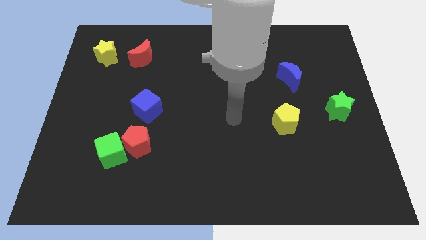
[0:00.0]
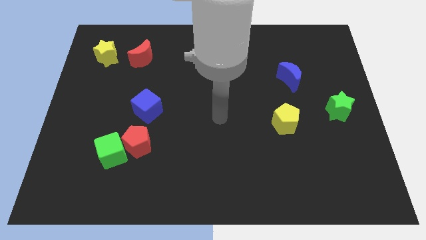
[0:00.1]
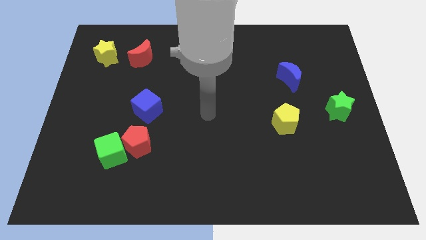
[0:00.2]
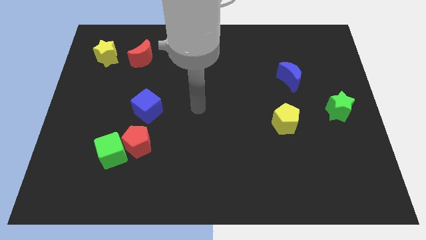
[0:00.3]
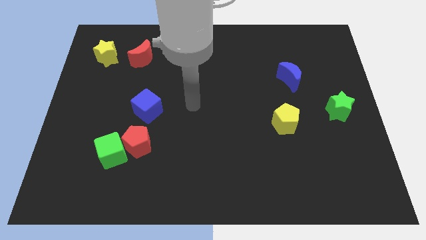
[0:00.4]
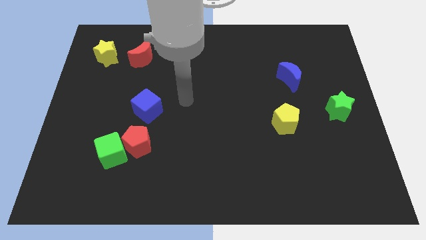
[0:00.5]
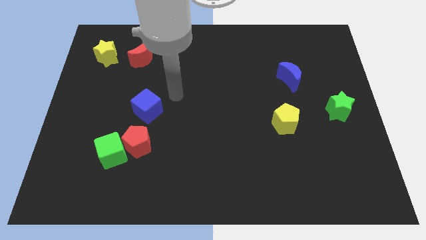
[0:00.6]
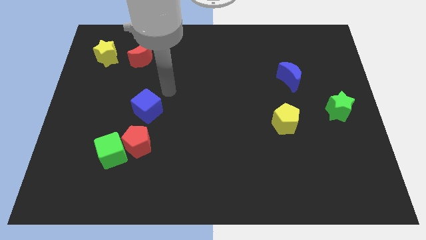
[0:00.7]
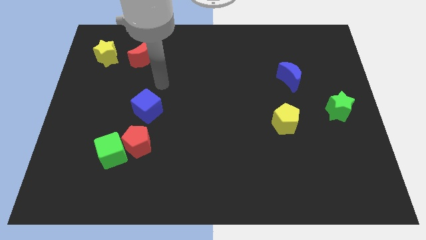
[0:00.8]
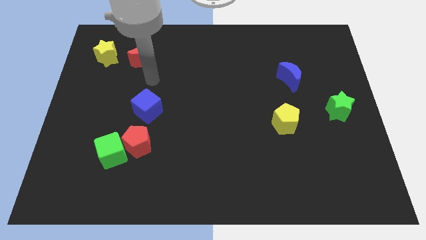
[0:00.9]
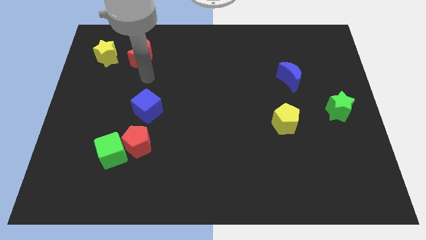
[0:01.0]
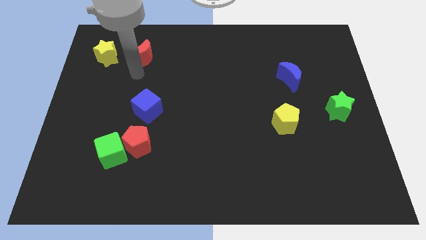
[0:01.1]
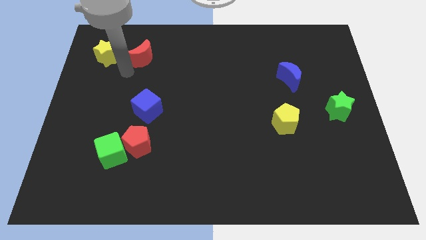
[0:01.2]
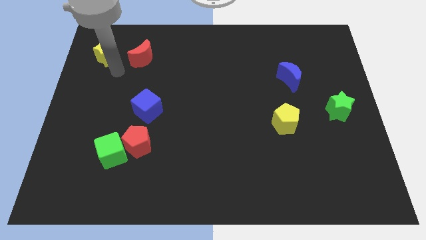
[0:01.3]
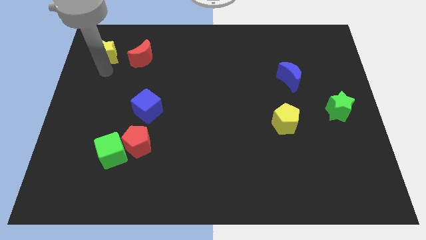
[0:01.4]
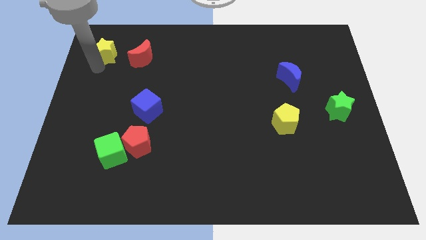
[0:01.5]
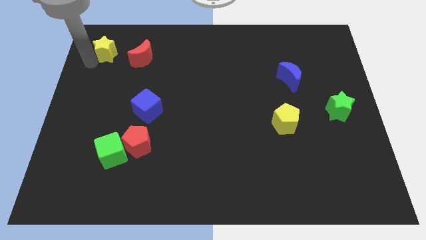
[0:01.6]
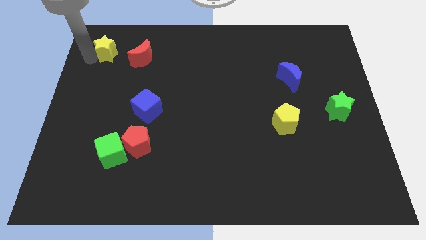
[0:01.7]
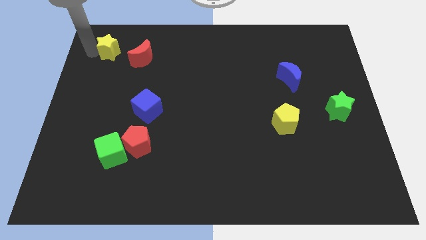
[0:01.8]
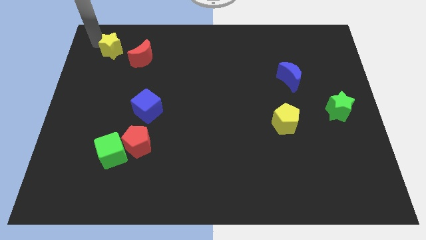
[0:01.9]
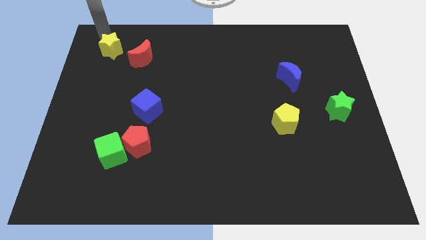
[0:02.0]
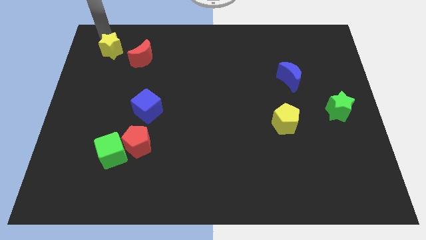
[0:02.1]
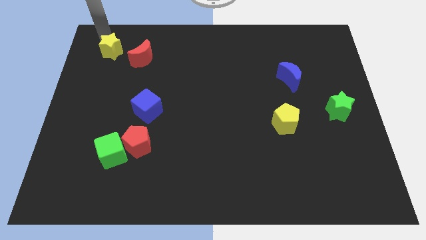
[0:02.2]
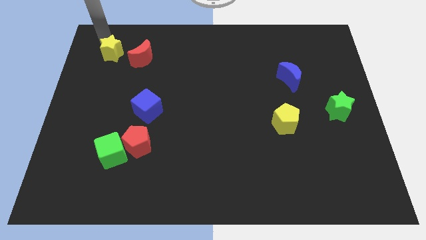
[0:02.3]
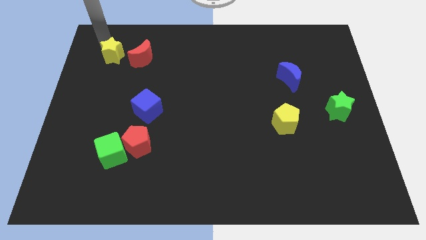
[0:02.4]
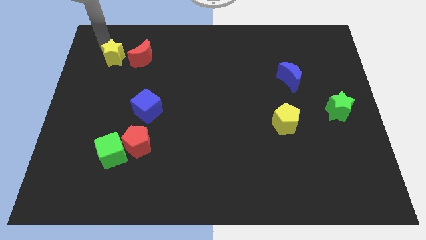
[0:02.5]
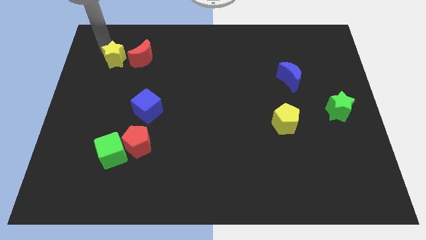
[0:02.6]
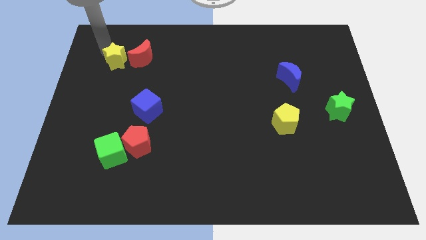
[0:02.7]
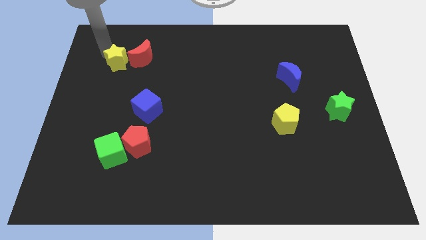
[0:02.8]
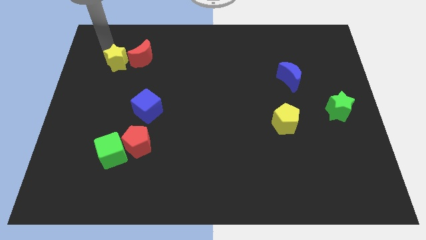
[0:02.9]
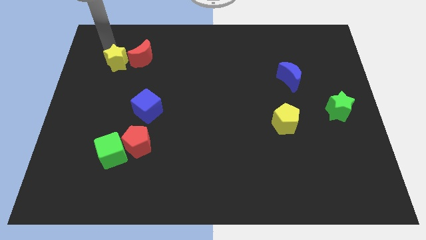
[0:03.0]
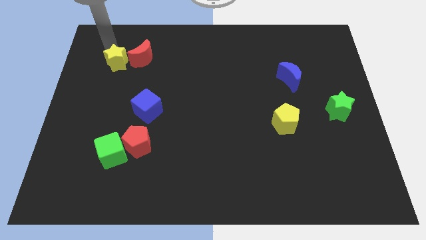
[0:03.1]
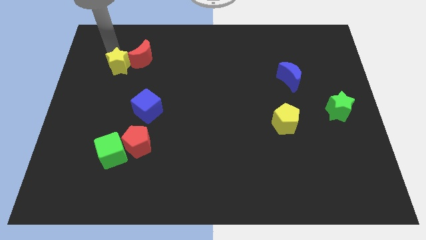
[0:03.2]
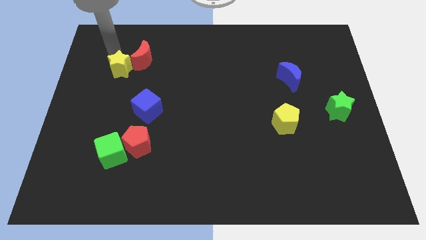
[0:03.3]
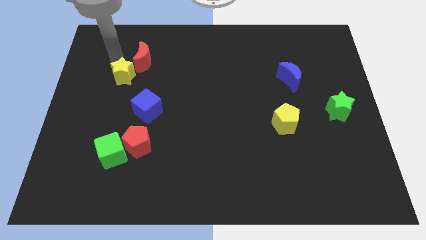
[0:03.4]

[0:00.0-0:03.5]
move the yellow star diagonally downwards and to the right a little bit

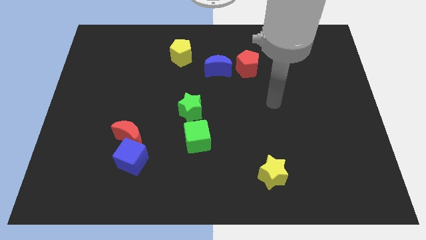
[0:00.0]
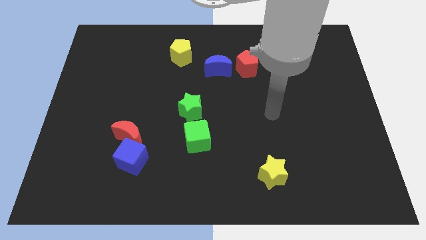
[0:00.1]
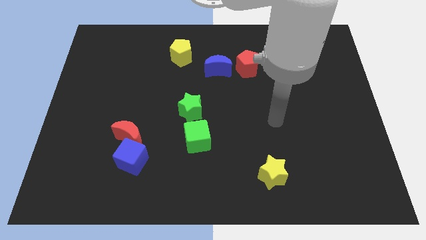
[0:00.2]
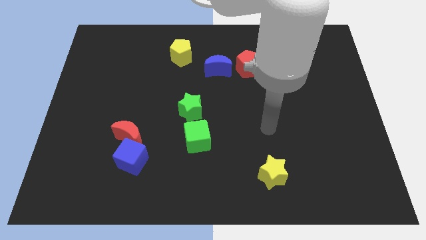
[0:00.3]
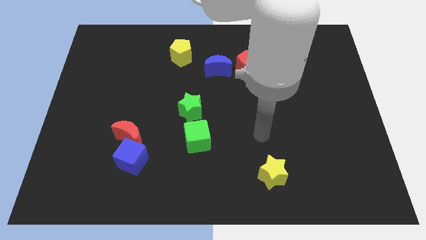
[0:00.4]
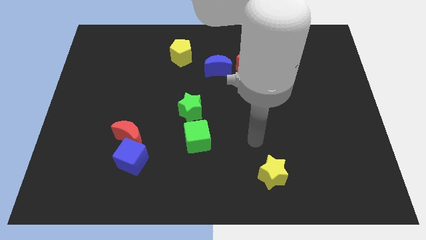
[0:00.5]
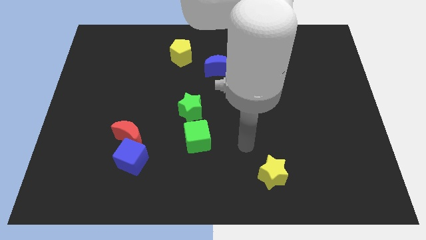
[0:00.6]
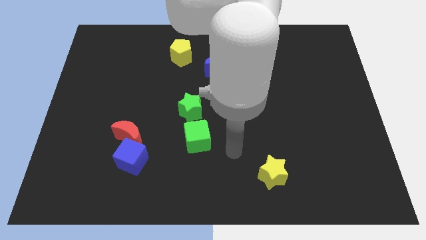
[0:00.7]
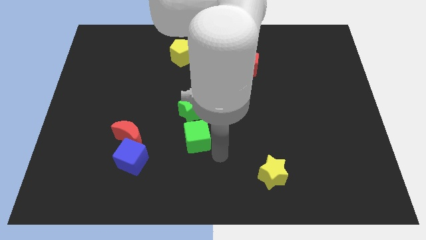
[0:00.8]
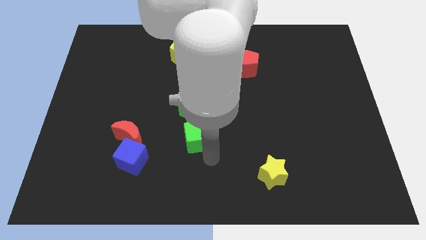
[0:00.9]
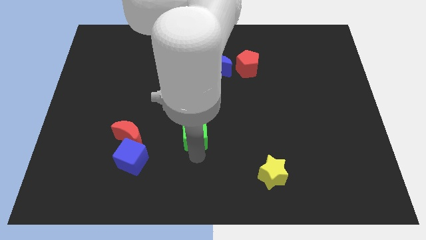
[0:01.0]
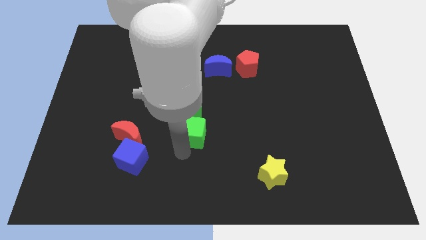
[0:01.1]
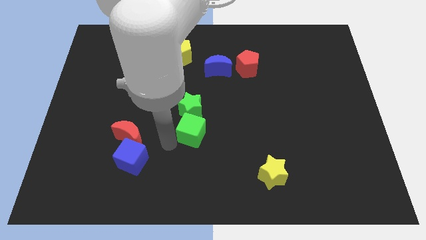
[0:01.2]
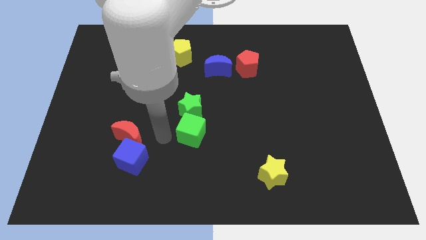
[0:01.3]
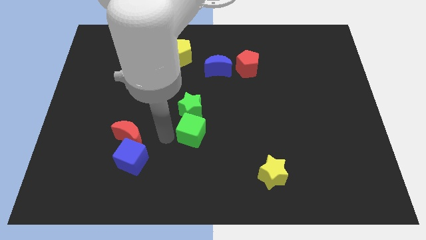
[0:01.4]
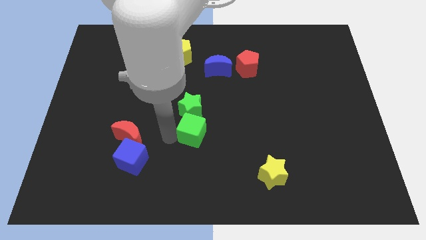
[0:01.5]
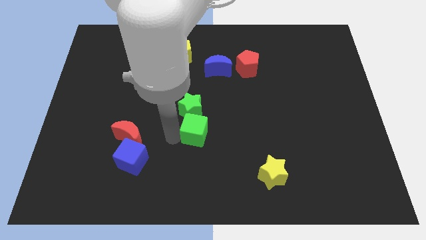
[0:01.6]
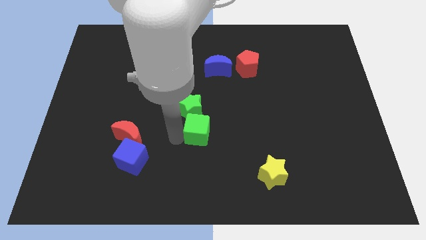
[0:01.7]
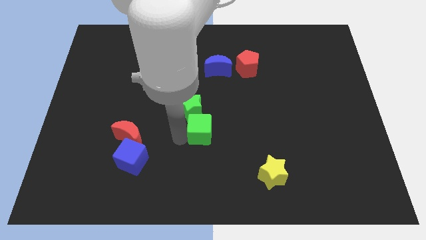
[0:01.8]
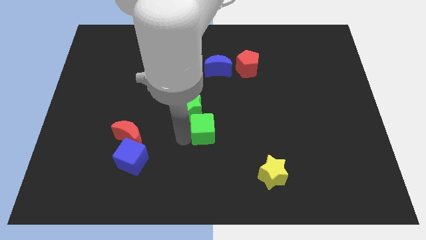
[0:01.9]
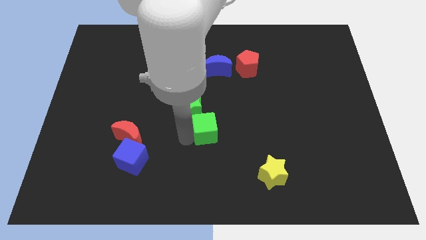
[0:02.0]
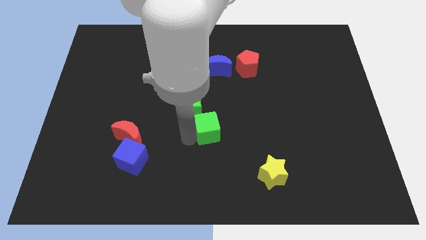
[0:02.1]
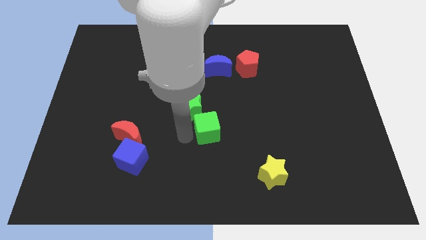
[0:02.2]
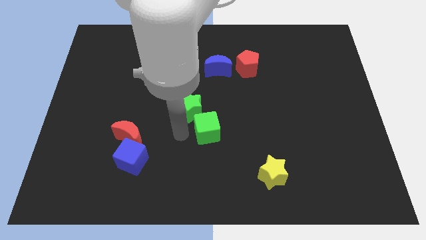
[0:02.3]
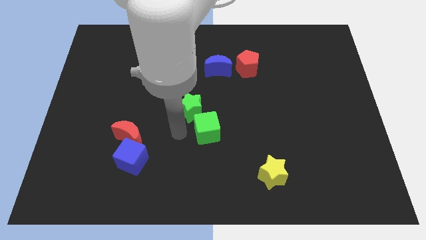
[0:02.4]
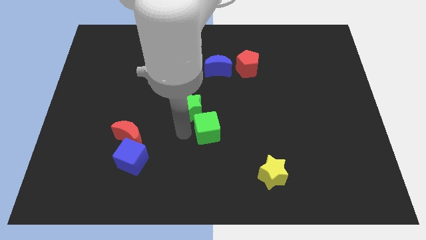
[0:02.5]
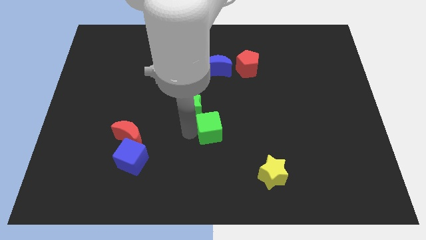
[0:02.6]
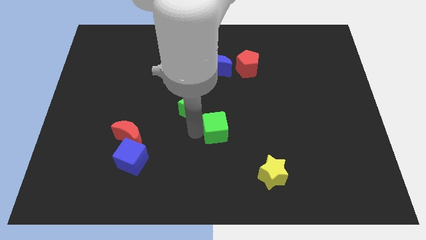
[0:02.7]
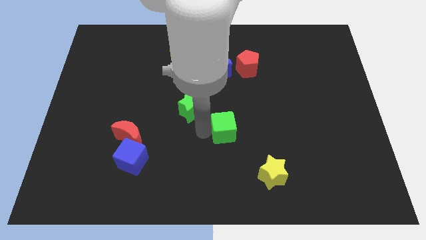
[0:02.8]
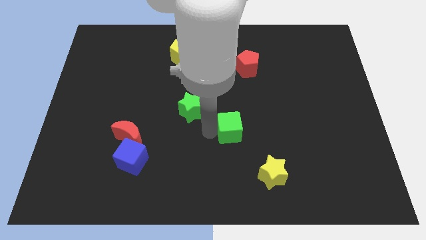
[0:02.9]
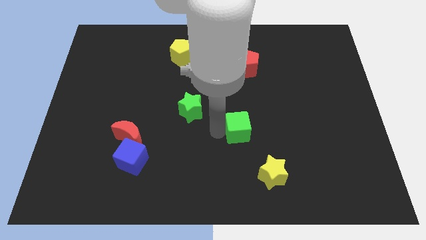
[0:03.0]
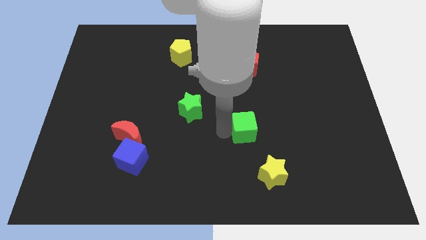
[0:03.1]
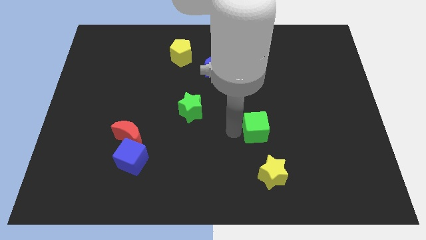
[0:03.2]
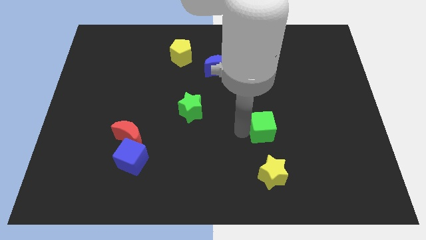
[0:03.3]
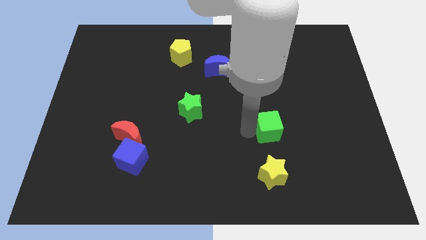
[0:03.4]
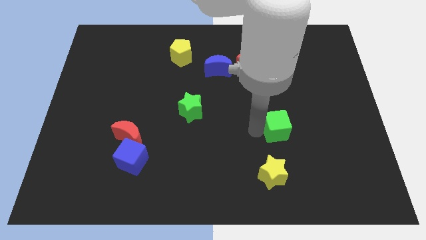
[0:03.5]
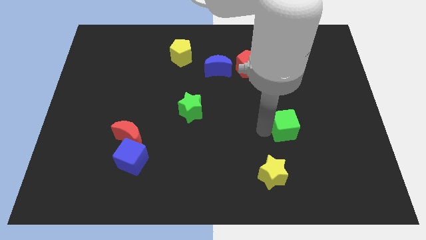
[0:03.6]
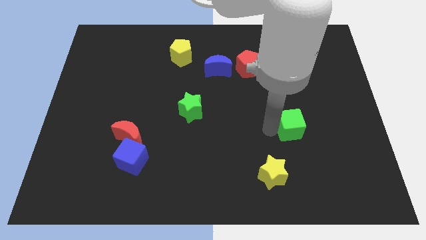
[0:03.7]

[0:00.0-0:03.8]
push the green cube to the right

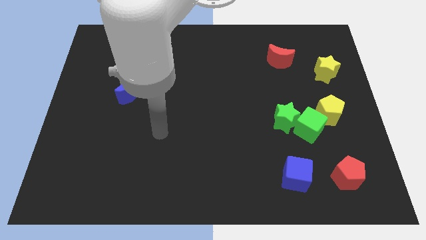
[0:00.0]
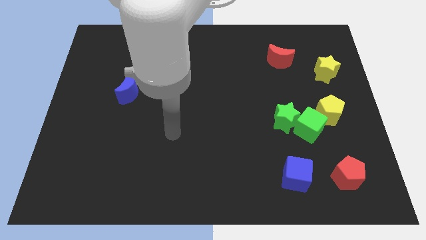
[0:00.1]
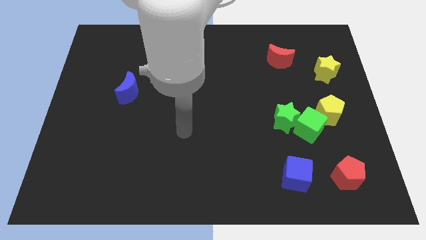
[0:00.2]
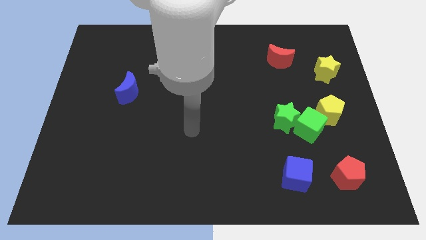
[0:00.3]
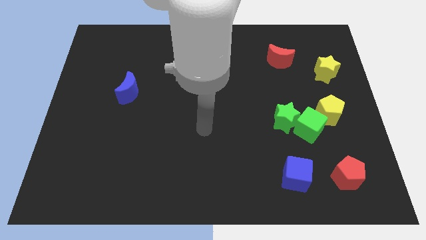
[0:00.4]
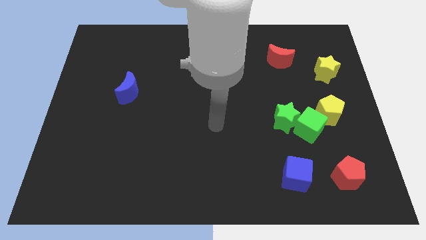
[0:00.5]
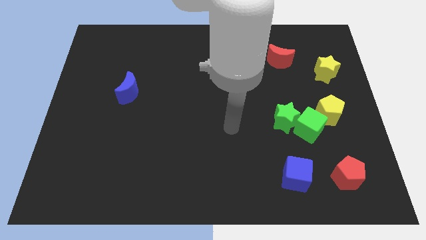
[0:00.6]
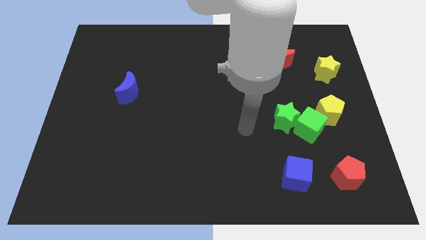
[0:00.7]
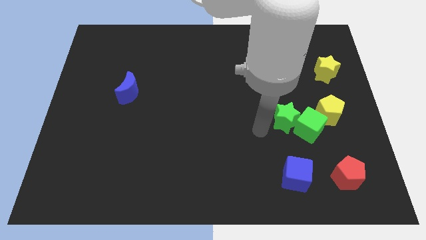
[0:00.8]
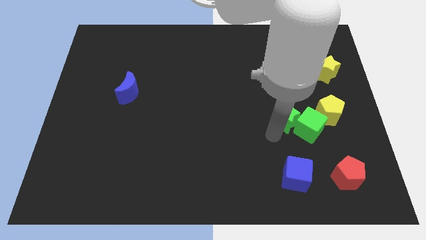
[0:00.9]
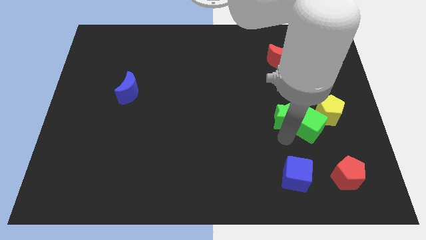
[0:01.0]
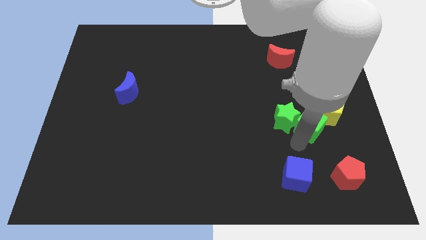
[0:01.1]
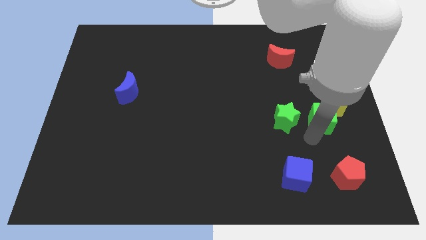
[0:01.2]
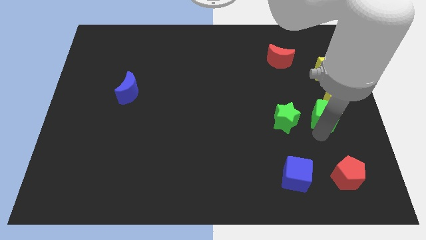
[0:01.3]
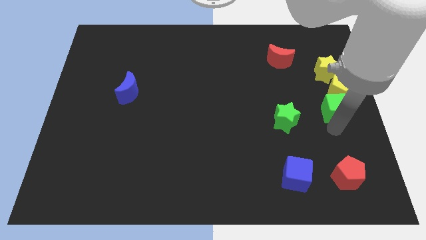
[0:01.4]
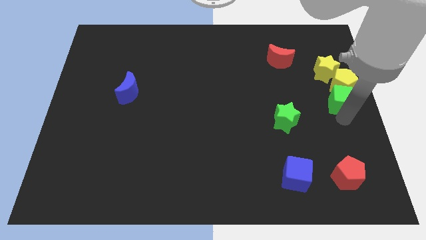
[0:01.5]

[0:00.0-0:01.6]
slightly push the yellow pentagon up
